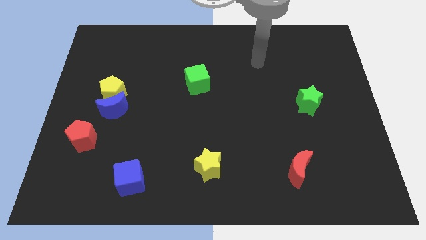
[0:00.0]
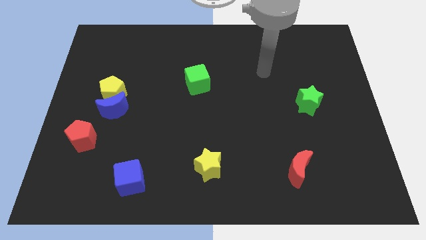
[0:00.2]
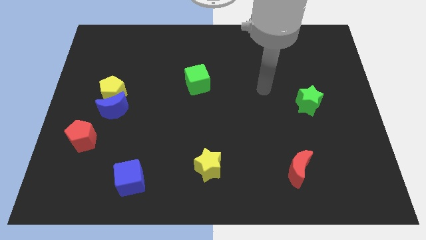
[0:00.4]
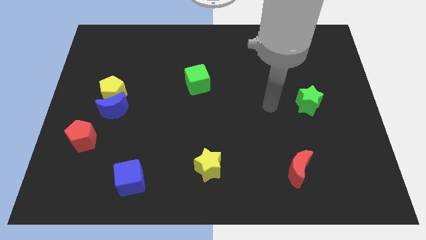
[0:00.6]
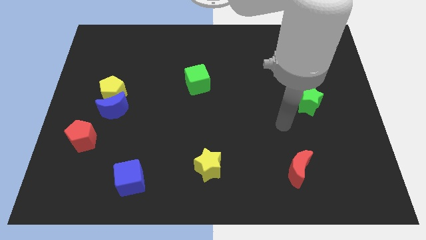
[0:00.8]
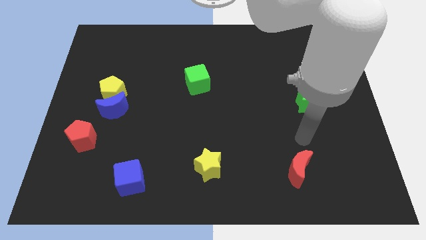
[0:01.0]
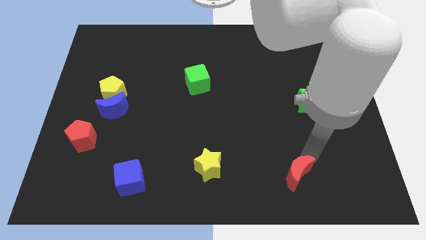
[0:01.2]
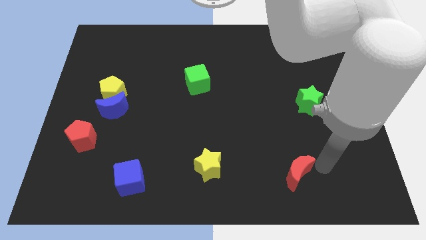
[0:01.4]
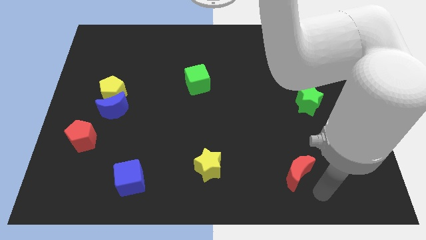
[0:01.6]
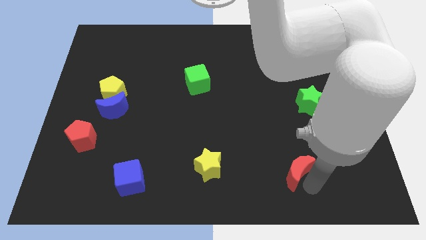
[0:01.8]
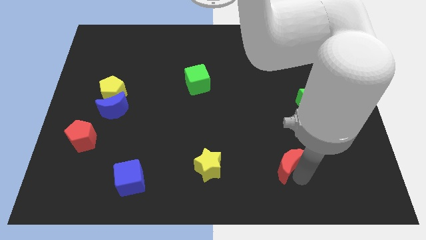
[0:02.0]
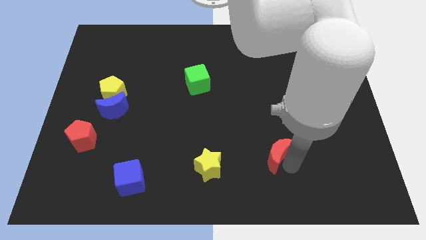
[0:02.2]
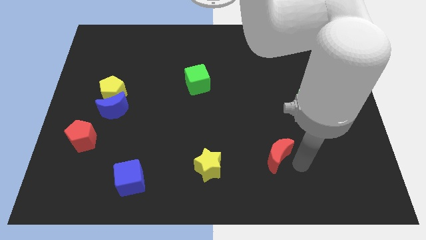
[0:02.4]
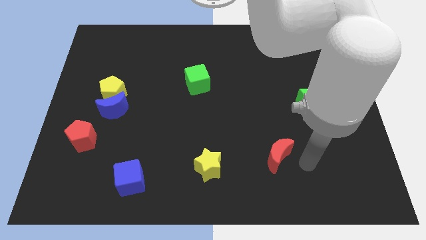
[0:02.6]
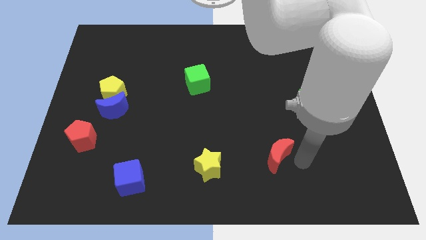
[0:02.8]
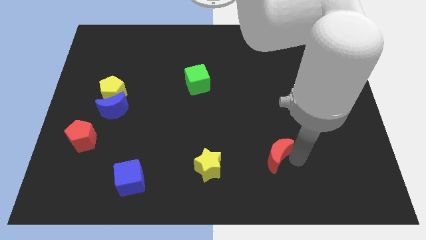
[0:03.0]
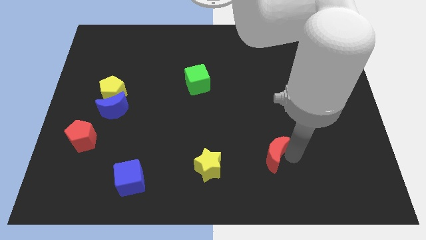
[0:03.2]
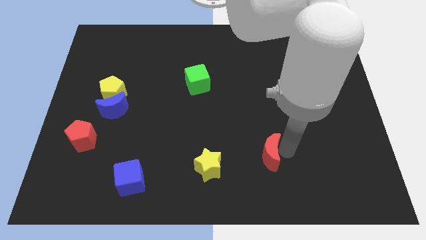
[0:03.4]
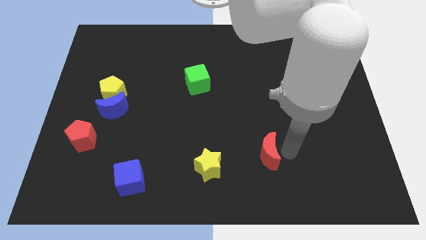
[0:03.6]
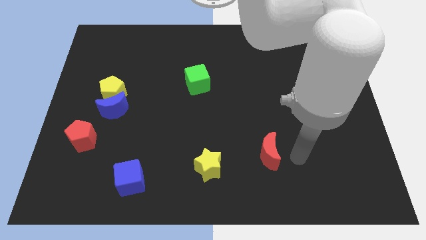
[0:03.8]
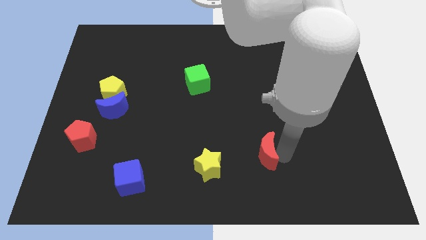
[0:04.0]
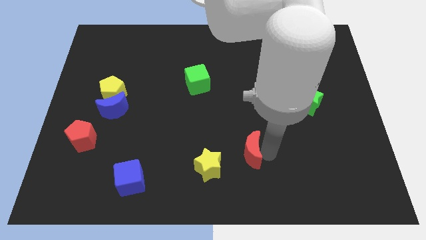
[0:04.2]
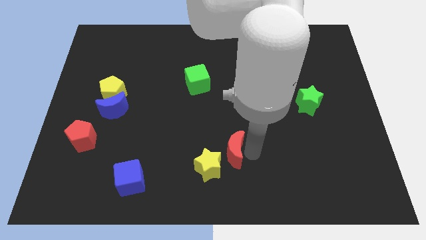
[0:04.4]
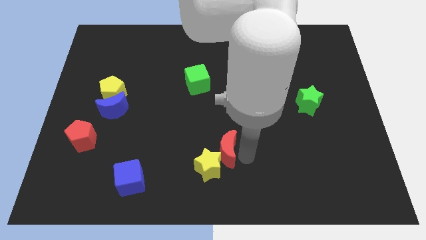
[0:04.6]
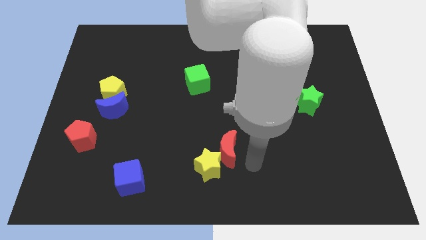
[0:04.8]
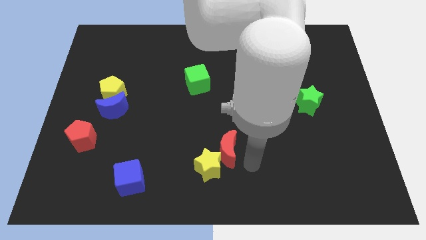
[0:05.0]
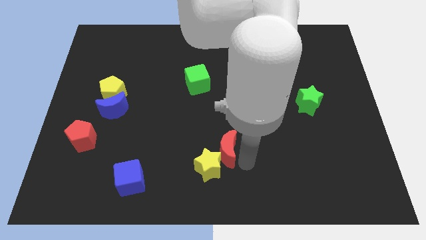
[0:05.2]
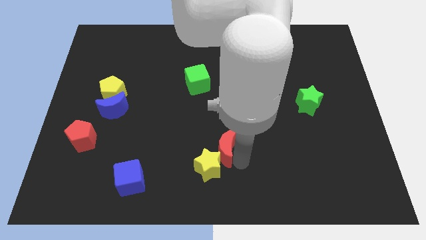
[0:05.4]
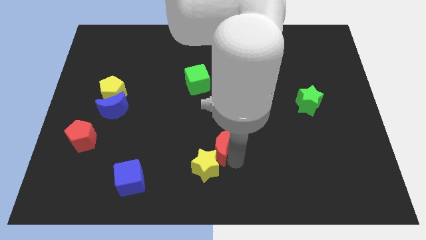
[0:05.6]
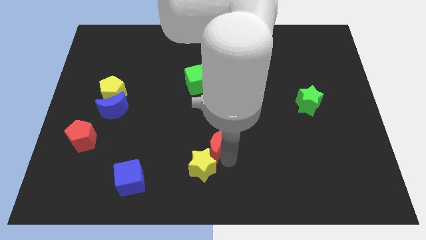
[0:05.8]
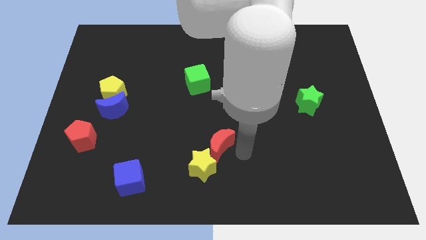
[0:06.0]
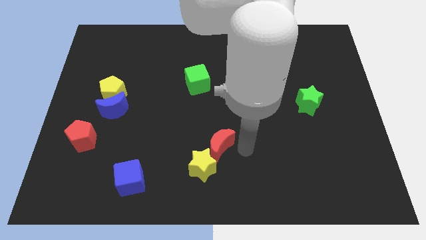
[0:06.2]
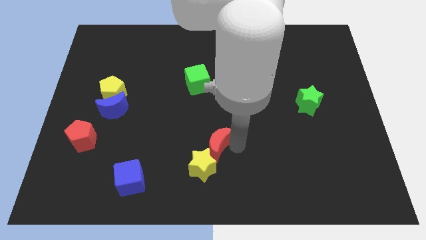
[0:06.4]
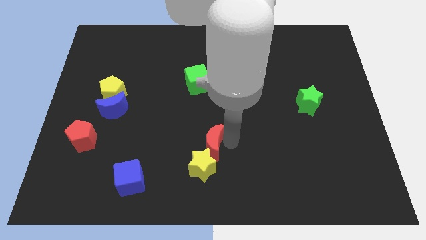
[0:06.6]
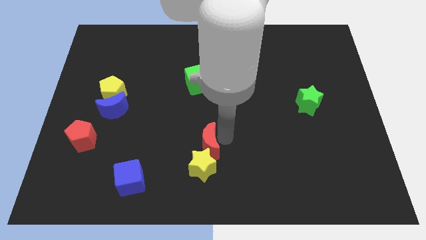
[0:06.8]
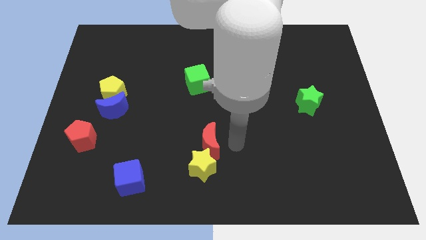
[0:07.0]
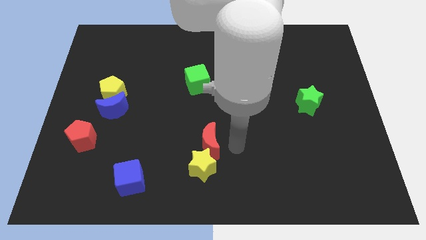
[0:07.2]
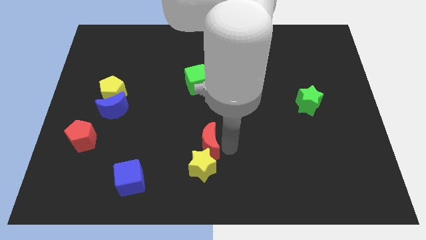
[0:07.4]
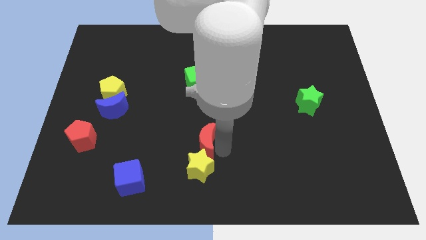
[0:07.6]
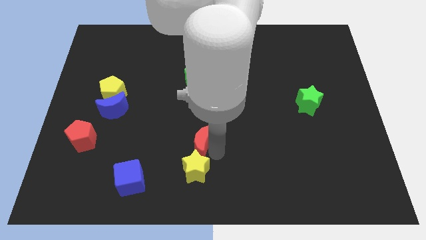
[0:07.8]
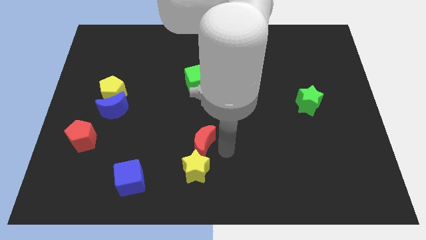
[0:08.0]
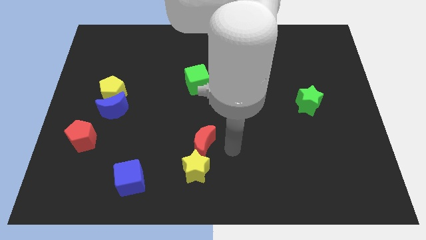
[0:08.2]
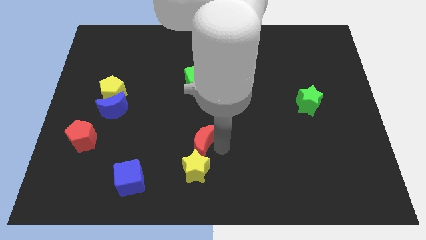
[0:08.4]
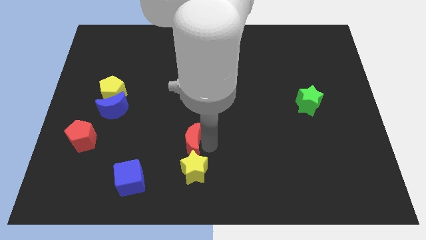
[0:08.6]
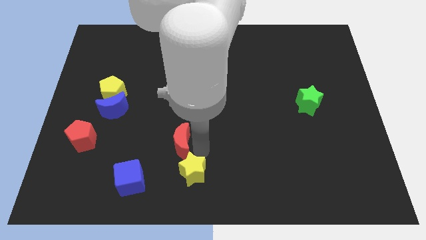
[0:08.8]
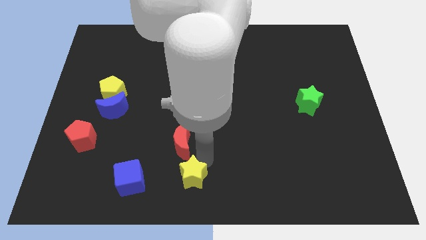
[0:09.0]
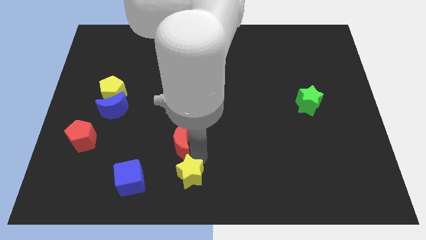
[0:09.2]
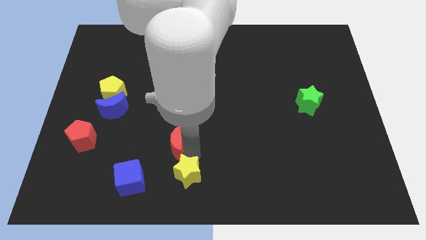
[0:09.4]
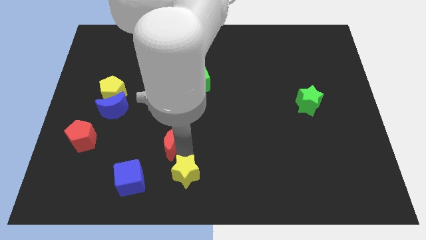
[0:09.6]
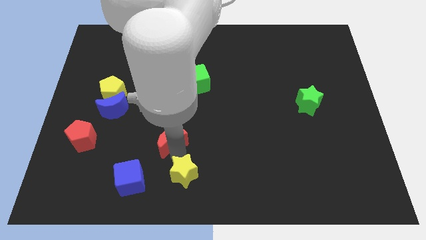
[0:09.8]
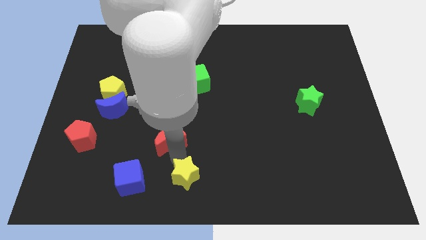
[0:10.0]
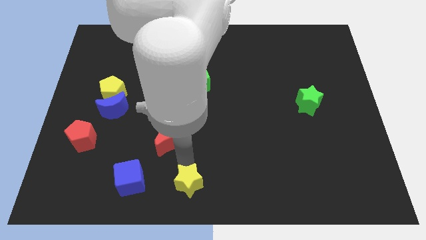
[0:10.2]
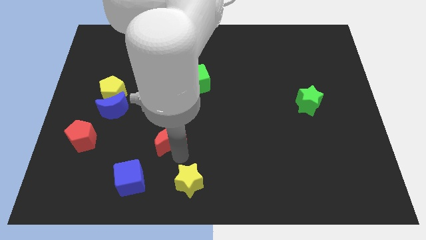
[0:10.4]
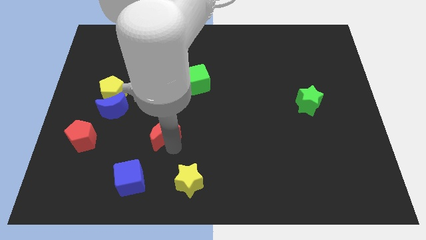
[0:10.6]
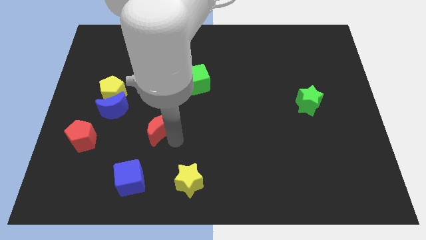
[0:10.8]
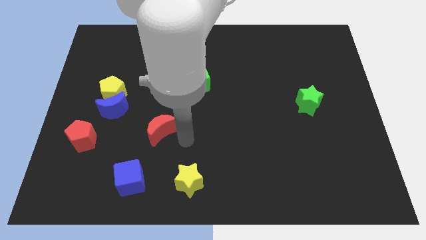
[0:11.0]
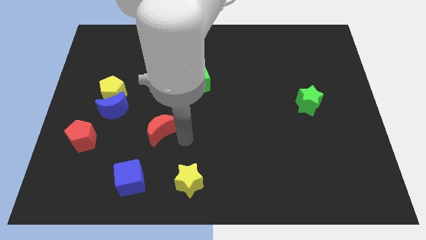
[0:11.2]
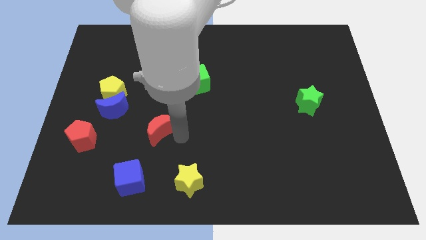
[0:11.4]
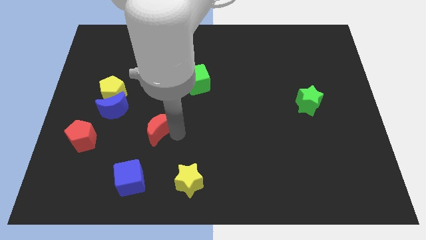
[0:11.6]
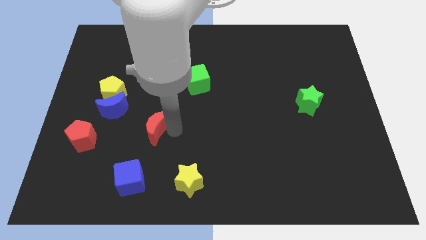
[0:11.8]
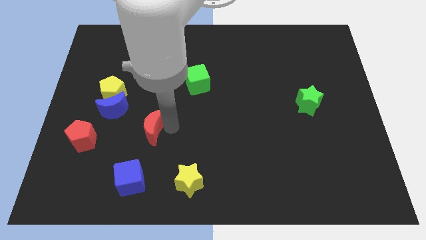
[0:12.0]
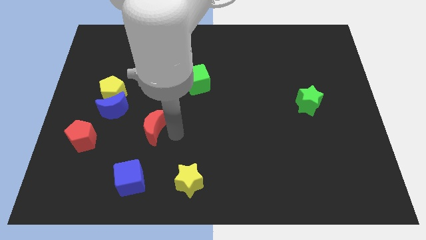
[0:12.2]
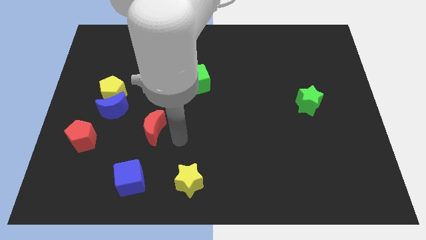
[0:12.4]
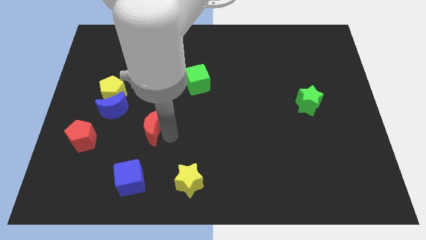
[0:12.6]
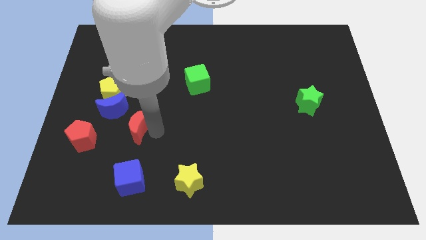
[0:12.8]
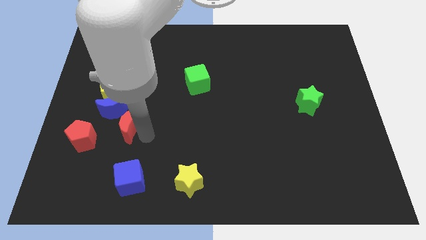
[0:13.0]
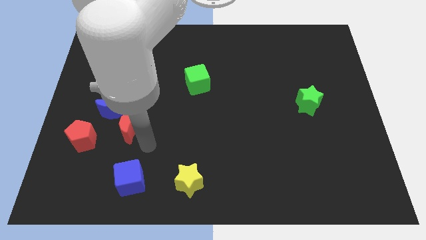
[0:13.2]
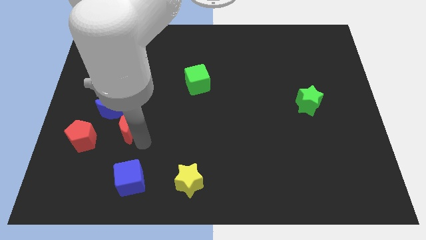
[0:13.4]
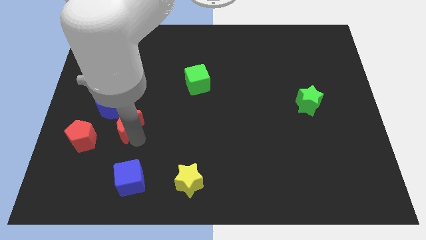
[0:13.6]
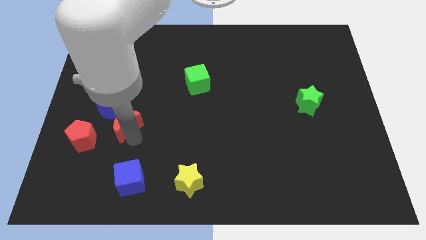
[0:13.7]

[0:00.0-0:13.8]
push the red moon next to the blue moon

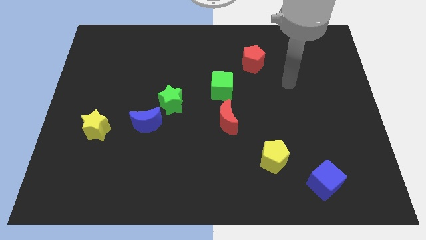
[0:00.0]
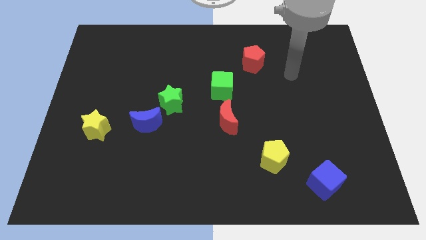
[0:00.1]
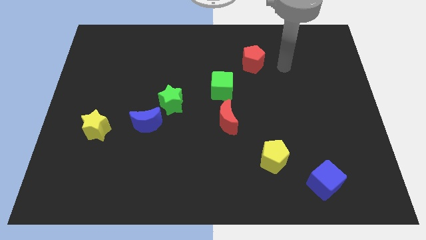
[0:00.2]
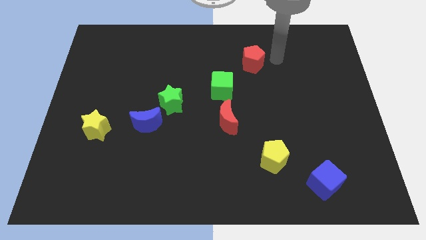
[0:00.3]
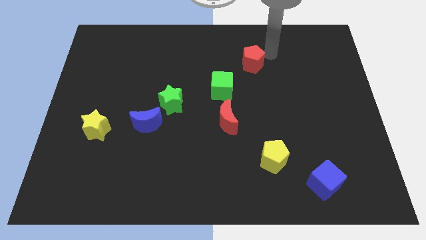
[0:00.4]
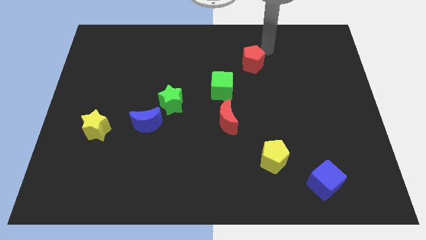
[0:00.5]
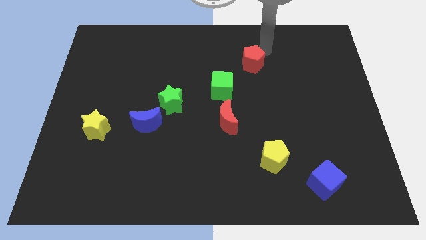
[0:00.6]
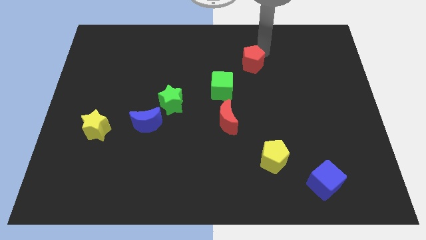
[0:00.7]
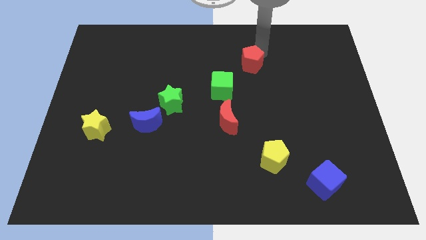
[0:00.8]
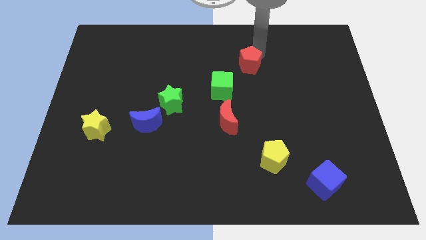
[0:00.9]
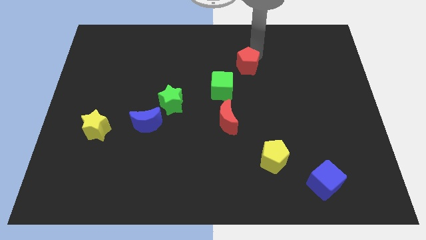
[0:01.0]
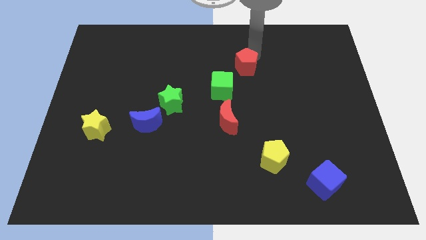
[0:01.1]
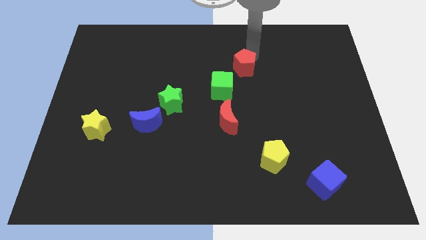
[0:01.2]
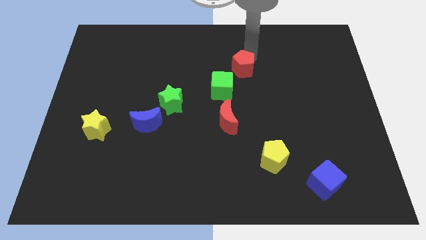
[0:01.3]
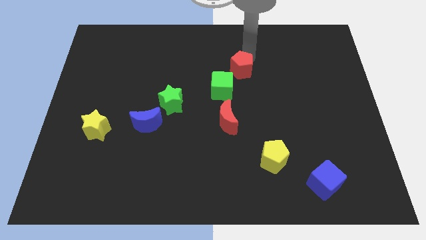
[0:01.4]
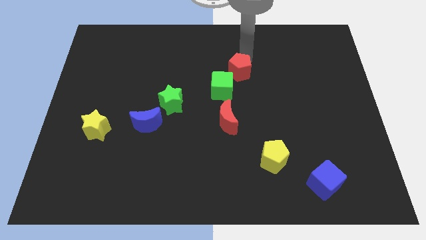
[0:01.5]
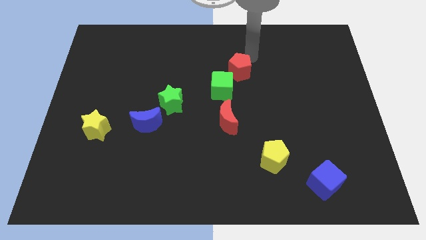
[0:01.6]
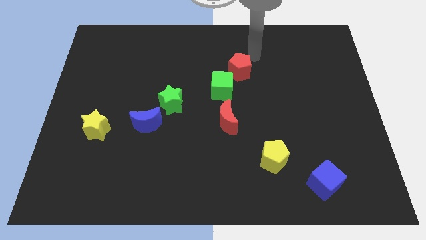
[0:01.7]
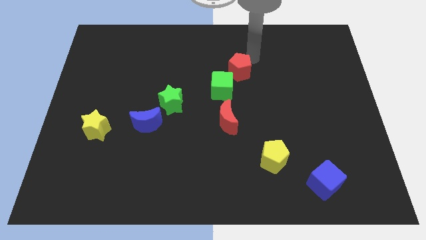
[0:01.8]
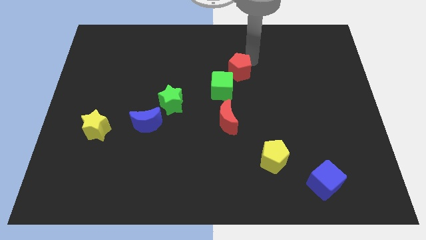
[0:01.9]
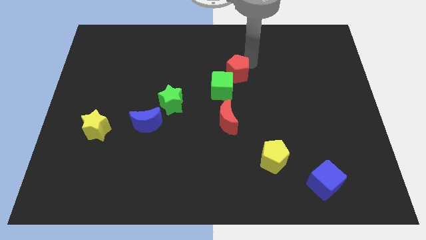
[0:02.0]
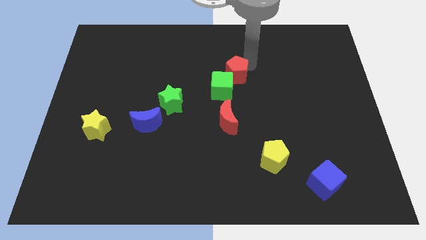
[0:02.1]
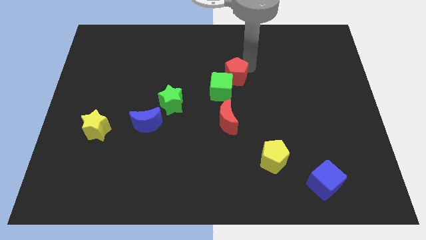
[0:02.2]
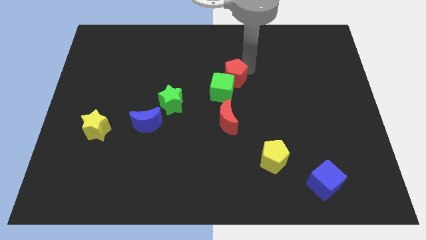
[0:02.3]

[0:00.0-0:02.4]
push the red pentagon close to the green cube
